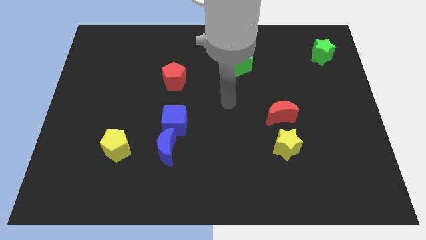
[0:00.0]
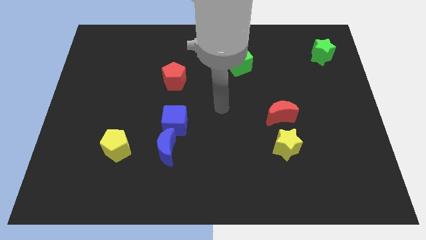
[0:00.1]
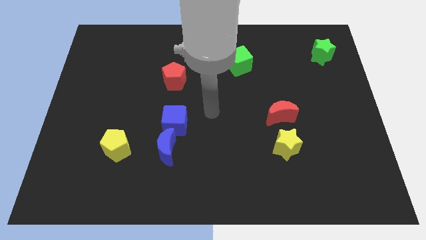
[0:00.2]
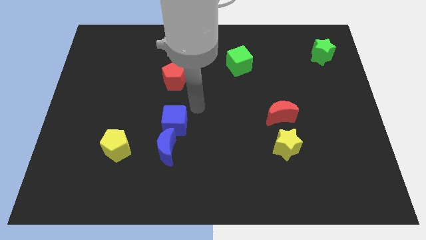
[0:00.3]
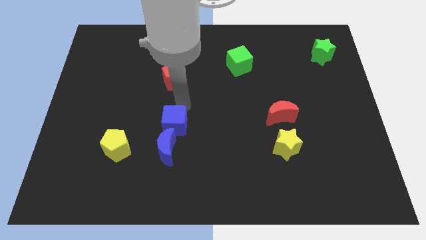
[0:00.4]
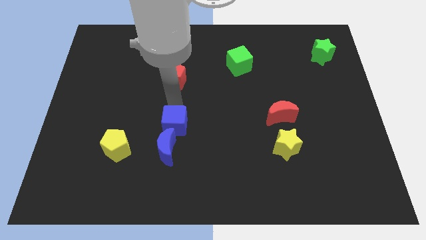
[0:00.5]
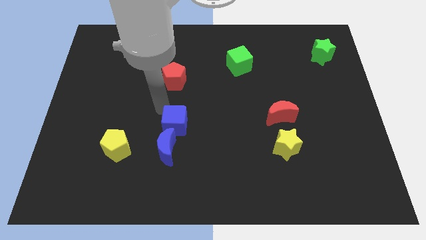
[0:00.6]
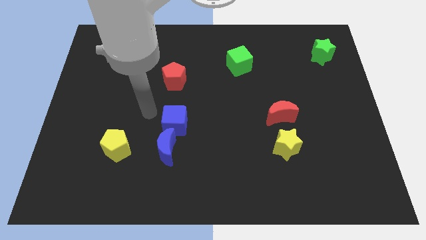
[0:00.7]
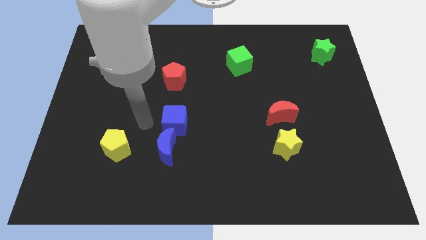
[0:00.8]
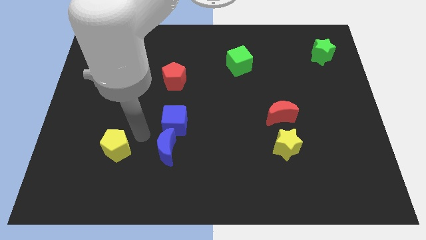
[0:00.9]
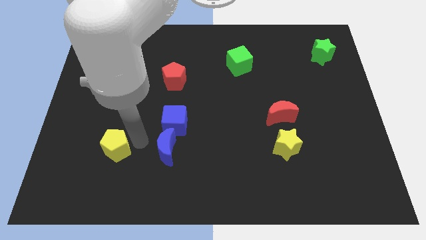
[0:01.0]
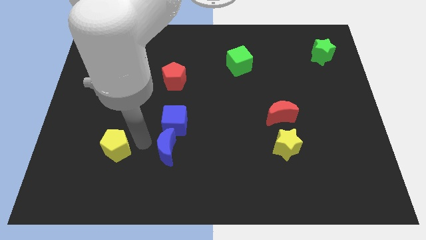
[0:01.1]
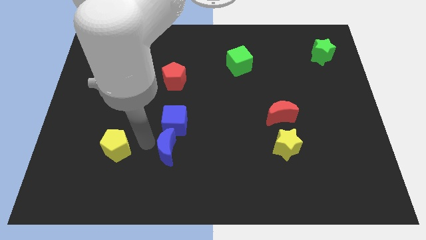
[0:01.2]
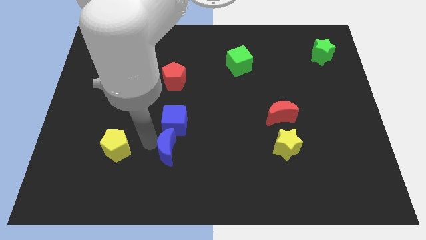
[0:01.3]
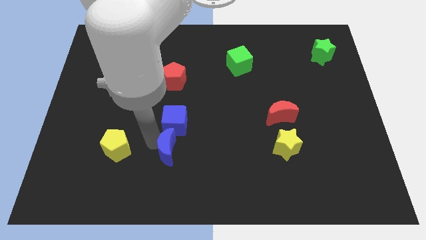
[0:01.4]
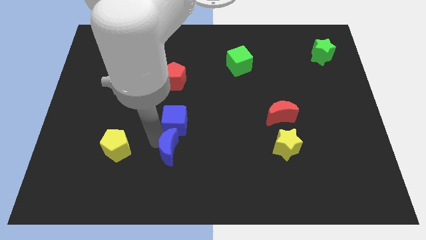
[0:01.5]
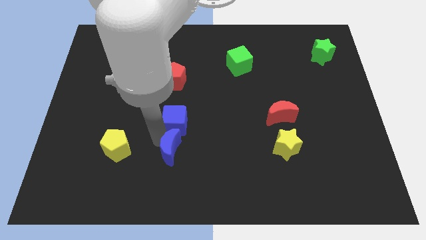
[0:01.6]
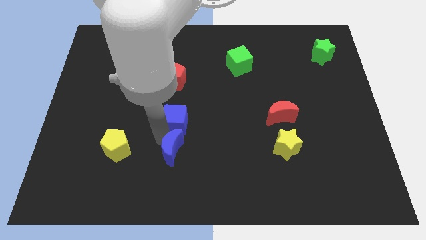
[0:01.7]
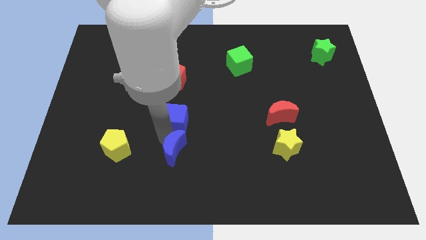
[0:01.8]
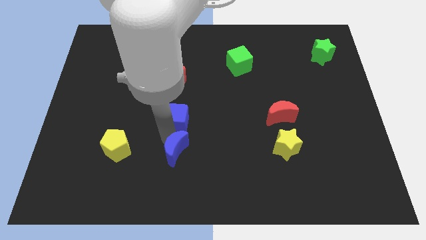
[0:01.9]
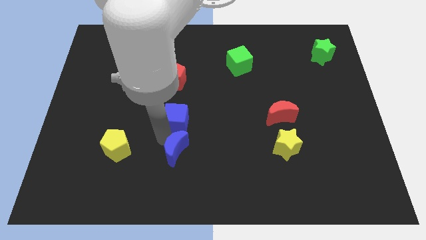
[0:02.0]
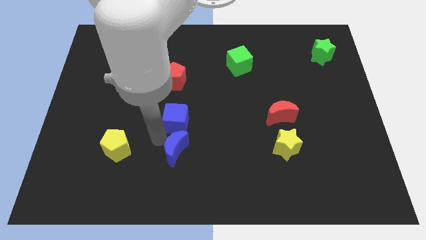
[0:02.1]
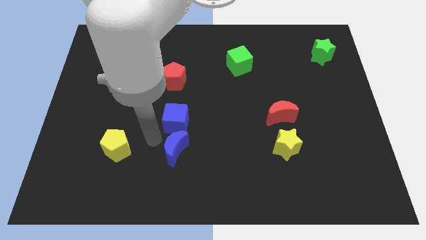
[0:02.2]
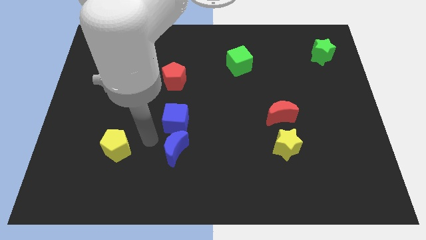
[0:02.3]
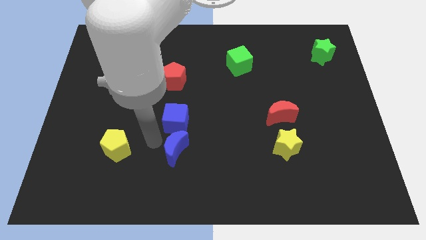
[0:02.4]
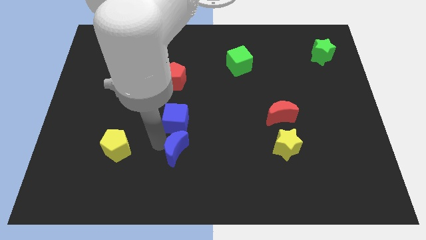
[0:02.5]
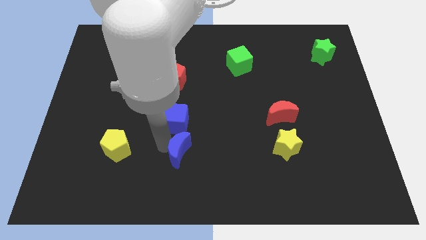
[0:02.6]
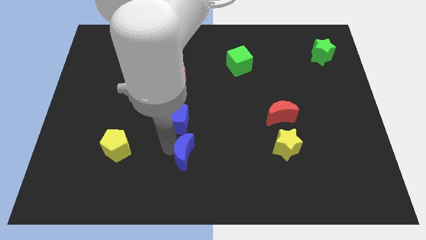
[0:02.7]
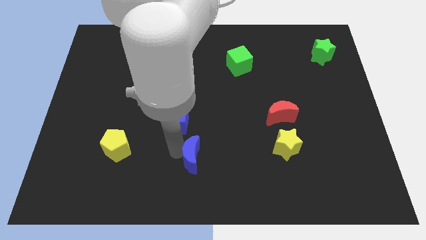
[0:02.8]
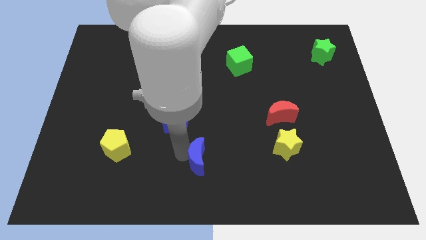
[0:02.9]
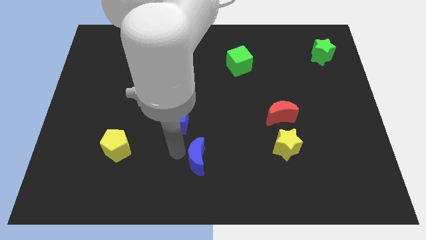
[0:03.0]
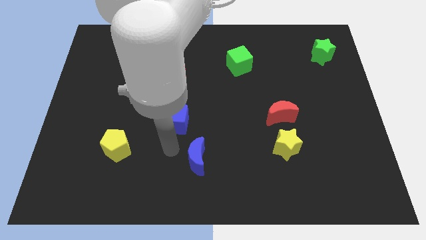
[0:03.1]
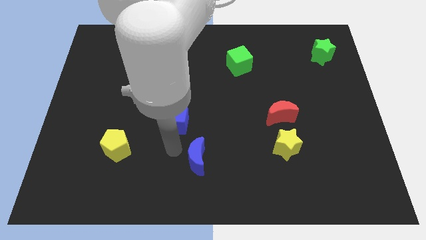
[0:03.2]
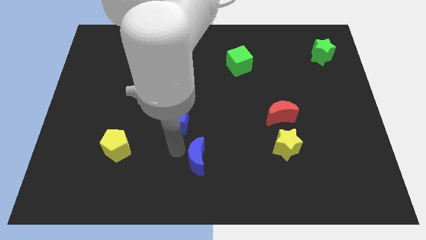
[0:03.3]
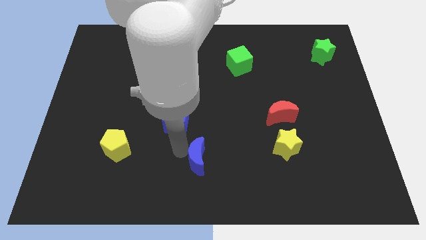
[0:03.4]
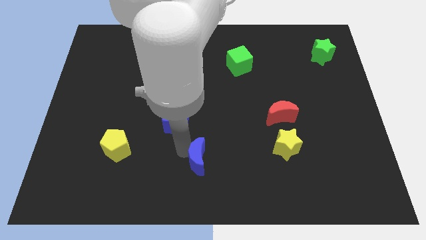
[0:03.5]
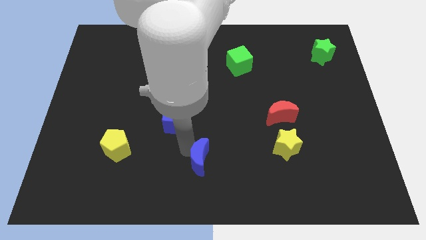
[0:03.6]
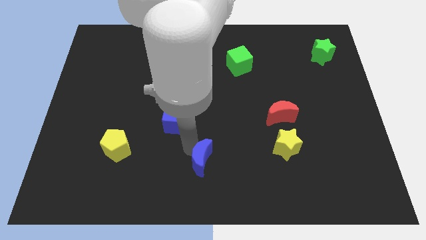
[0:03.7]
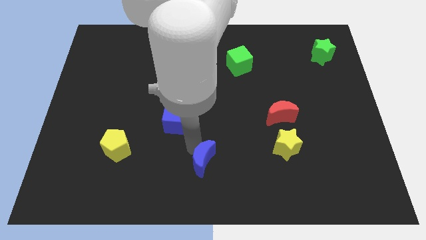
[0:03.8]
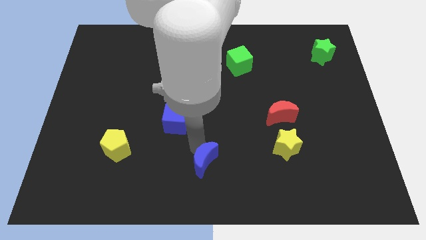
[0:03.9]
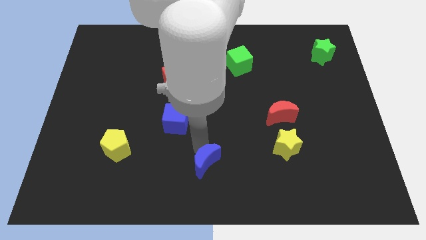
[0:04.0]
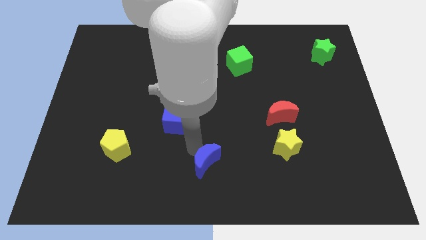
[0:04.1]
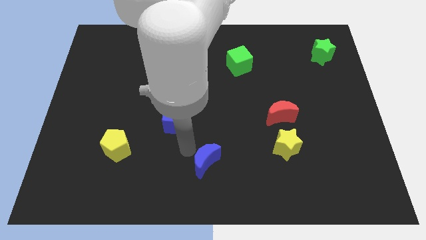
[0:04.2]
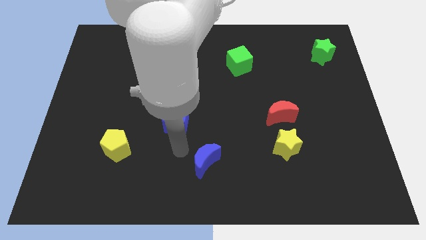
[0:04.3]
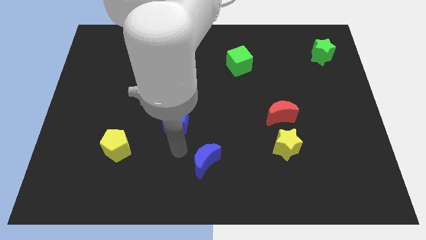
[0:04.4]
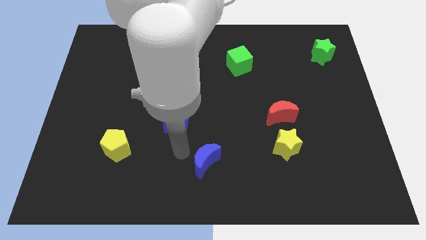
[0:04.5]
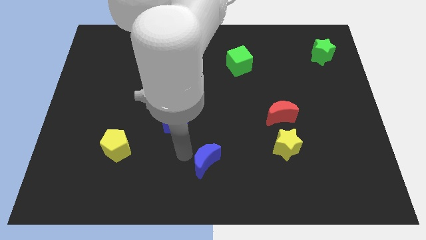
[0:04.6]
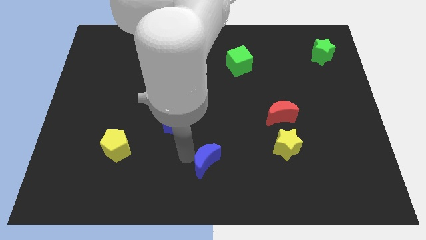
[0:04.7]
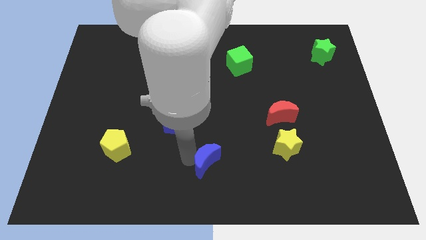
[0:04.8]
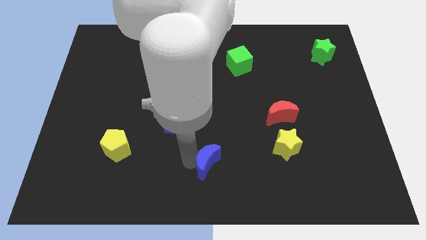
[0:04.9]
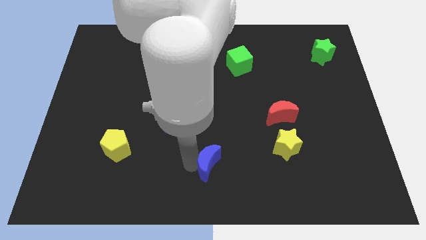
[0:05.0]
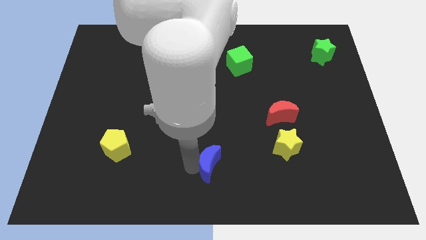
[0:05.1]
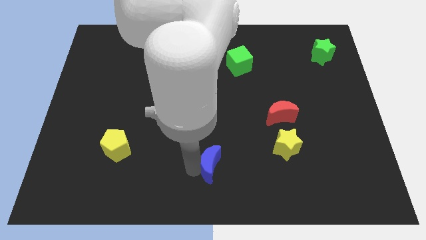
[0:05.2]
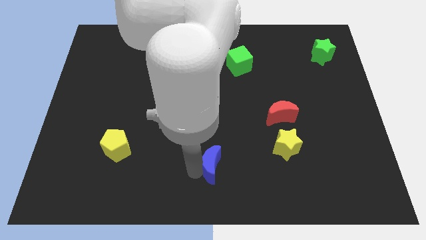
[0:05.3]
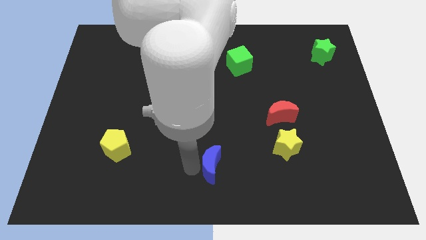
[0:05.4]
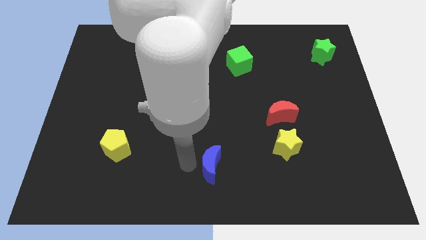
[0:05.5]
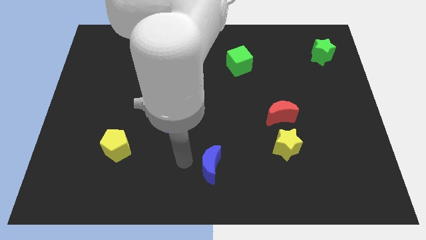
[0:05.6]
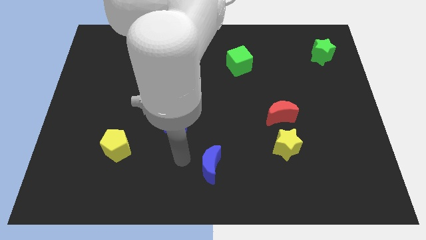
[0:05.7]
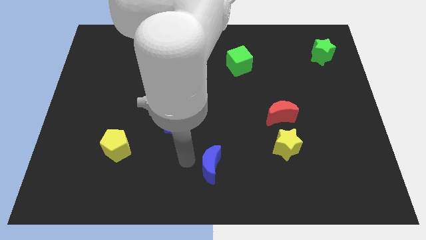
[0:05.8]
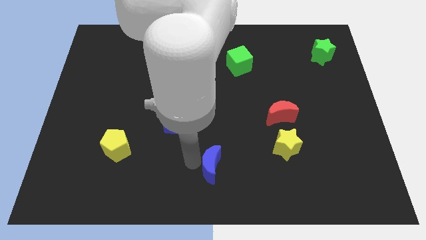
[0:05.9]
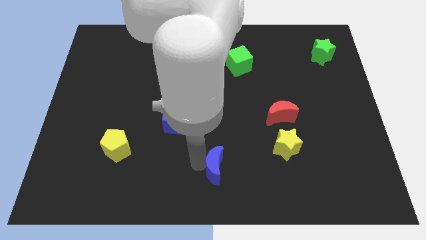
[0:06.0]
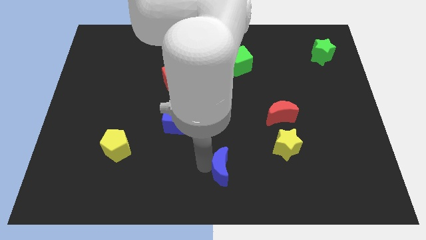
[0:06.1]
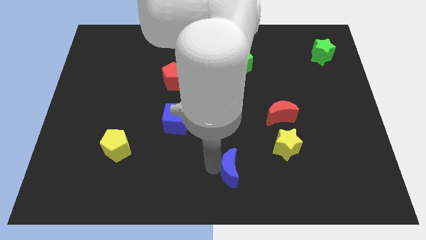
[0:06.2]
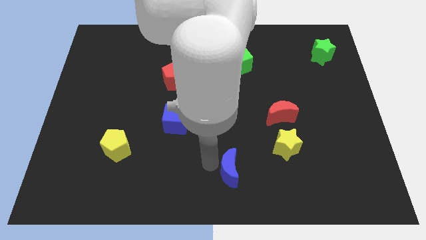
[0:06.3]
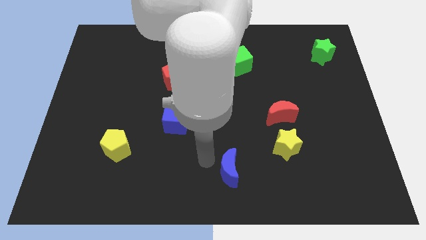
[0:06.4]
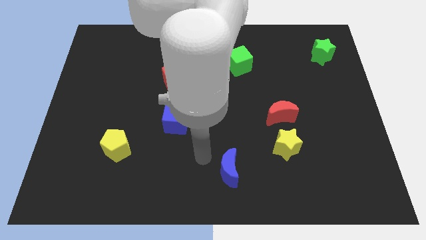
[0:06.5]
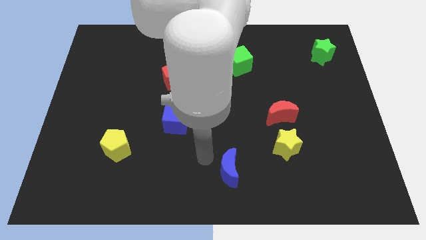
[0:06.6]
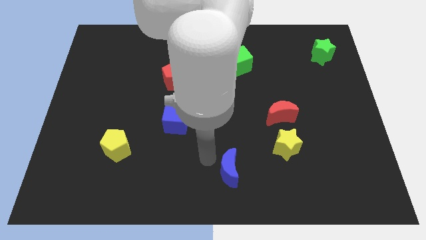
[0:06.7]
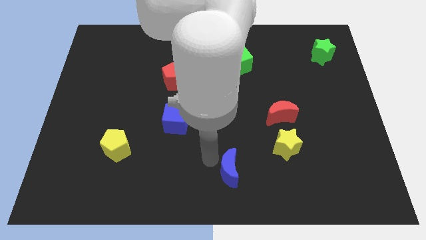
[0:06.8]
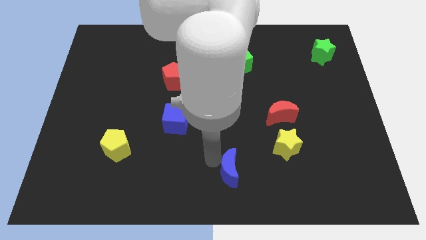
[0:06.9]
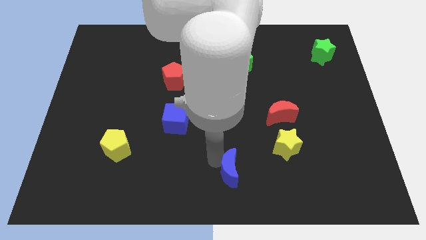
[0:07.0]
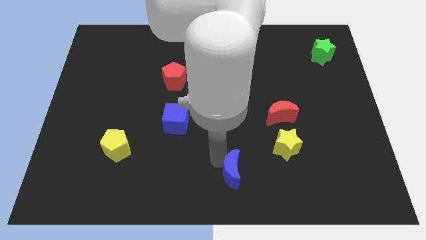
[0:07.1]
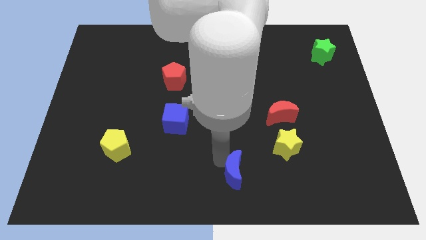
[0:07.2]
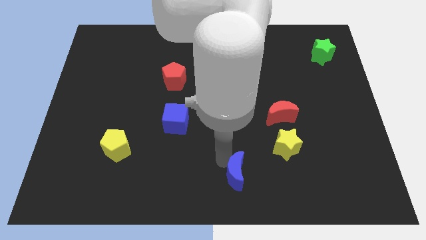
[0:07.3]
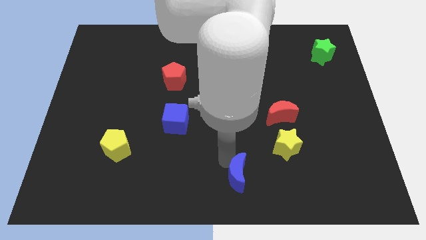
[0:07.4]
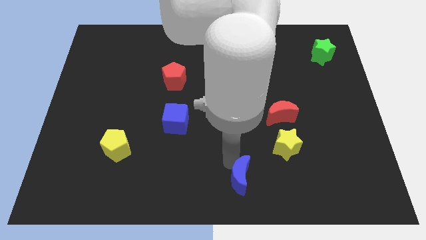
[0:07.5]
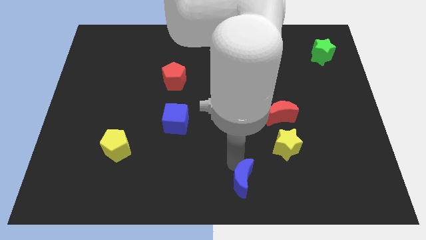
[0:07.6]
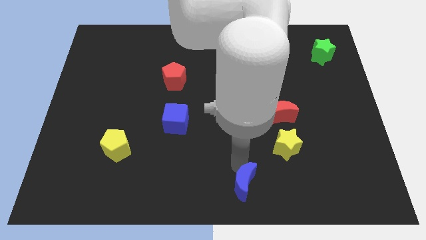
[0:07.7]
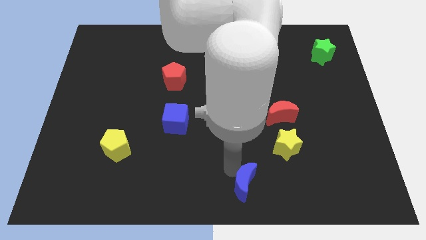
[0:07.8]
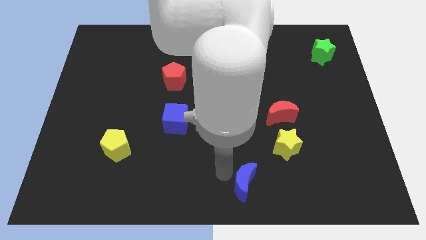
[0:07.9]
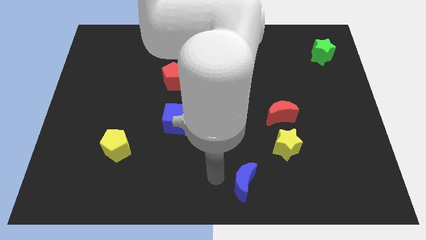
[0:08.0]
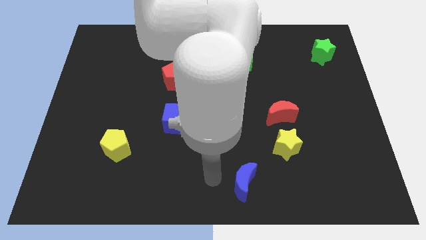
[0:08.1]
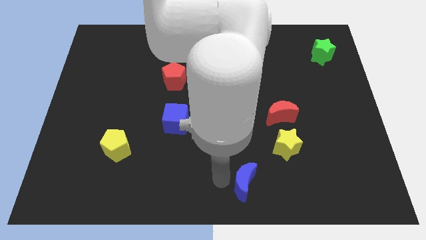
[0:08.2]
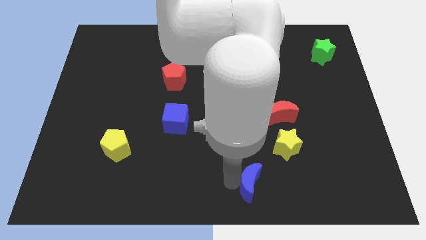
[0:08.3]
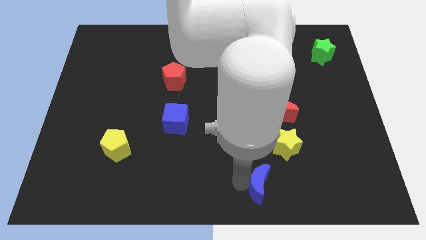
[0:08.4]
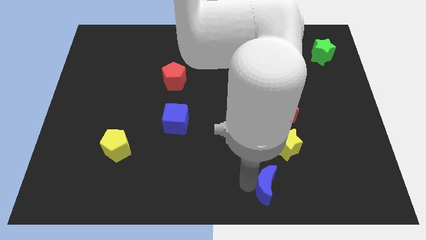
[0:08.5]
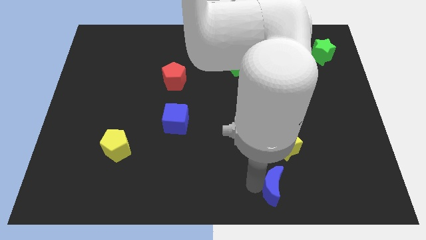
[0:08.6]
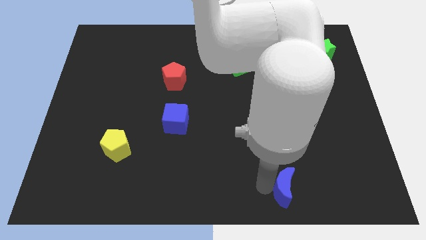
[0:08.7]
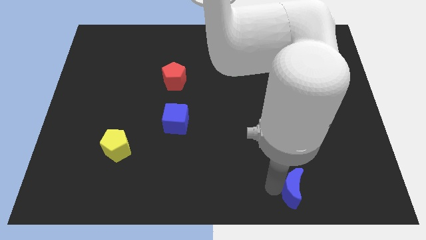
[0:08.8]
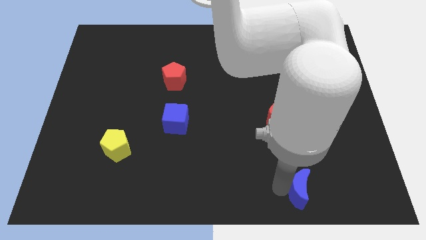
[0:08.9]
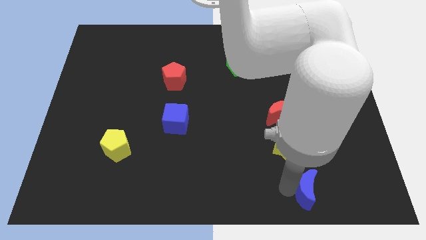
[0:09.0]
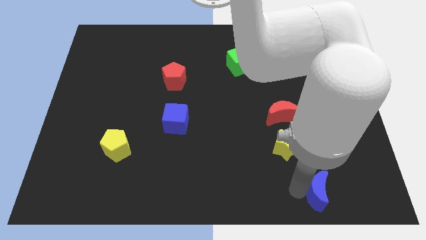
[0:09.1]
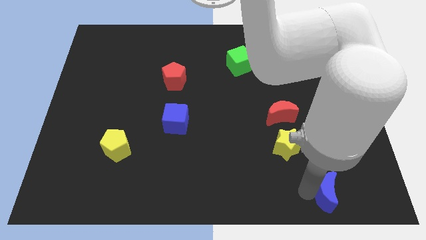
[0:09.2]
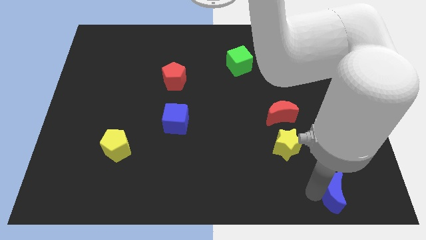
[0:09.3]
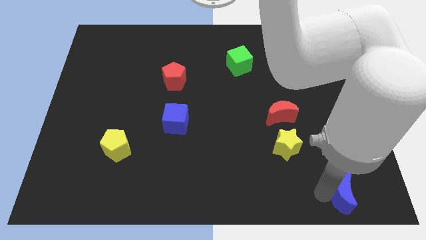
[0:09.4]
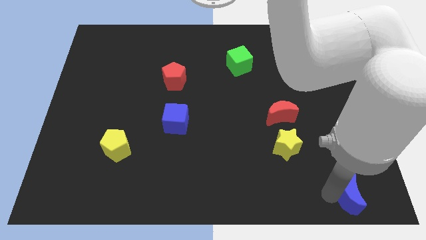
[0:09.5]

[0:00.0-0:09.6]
slide the blue moon to the bottom right corner
